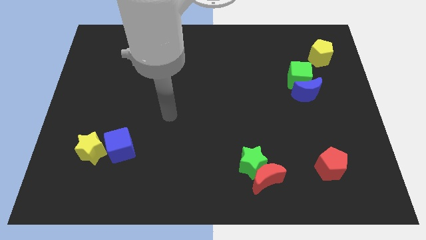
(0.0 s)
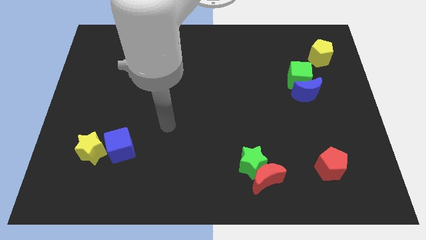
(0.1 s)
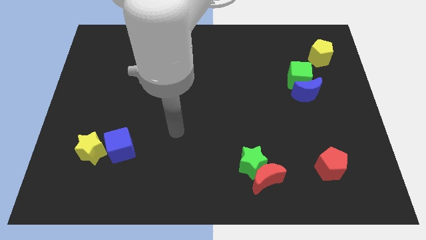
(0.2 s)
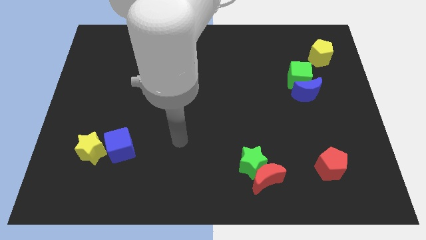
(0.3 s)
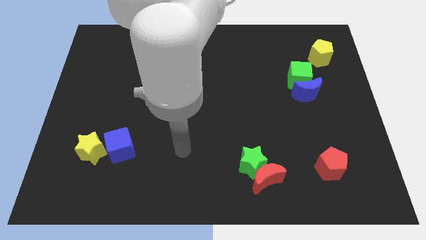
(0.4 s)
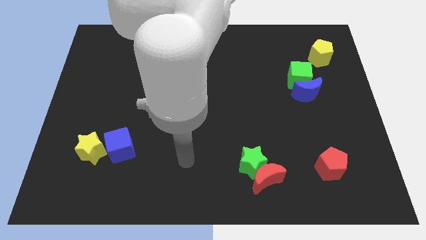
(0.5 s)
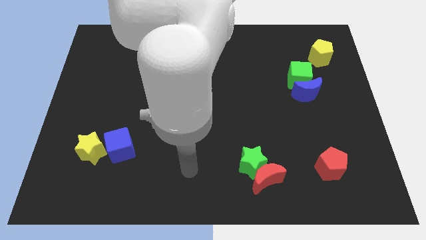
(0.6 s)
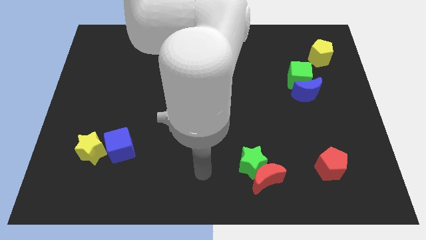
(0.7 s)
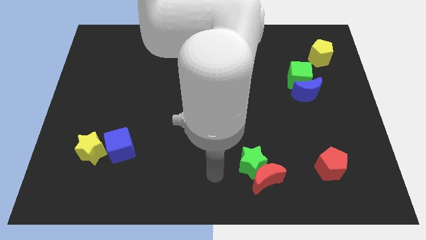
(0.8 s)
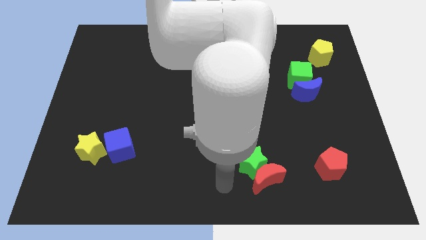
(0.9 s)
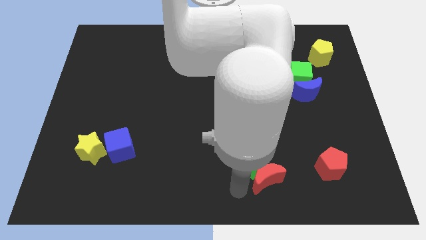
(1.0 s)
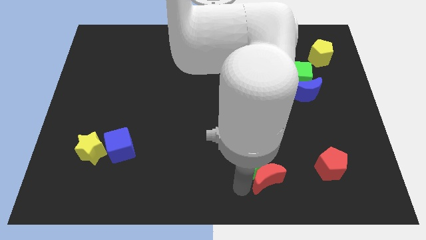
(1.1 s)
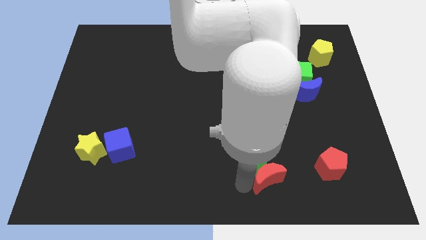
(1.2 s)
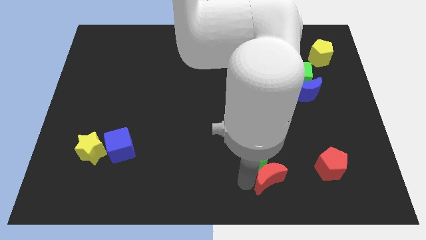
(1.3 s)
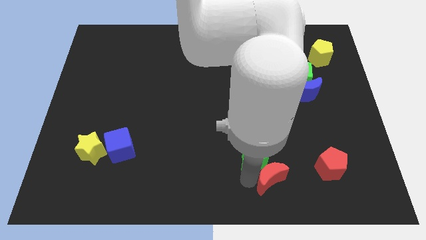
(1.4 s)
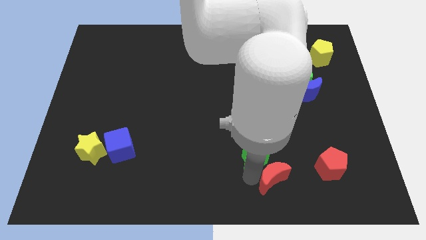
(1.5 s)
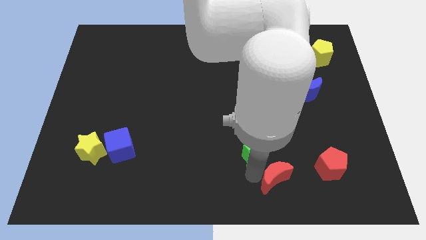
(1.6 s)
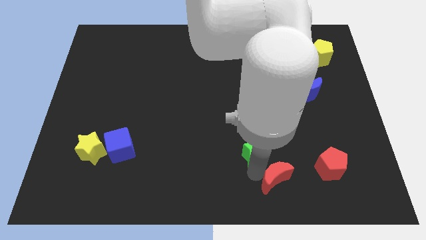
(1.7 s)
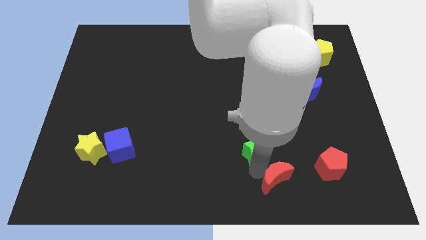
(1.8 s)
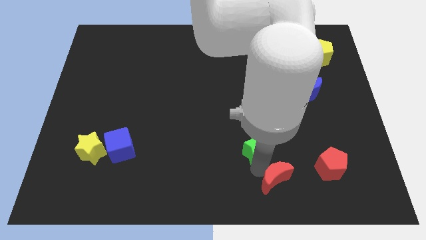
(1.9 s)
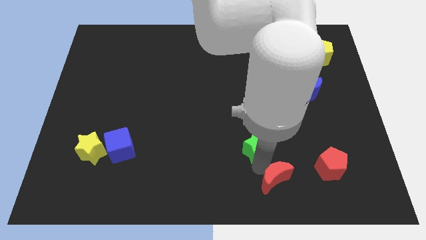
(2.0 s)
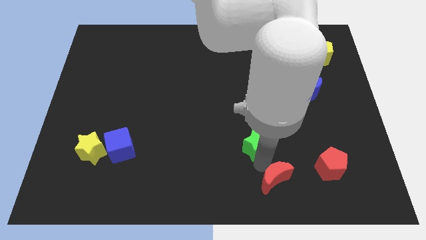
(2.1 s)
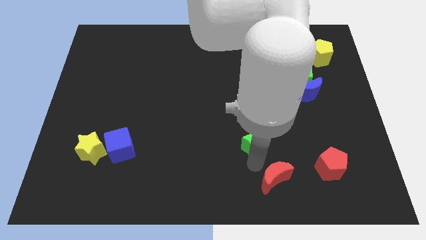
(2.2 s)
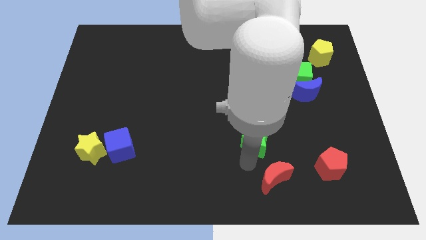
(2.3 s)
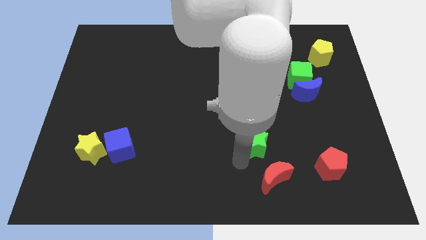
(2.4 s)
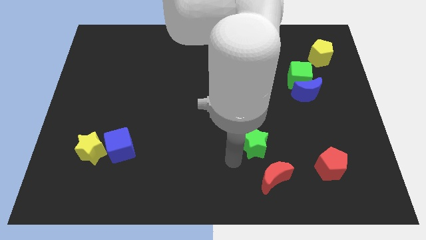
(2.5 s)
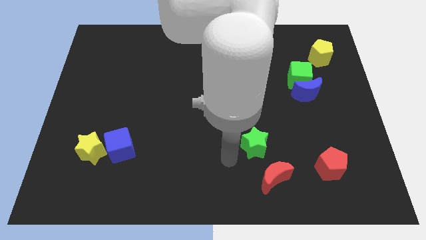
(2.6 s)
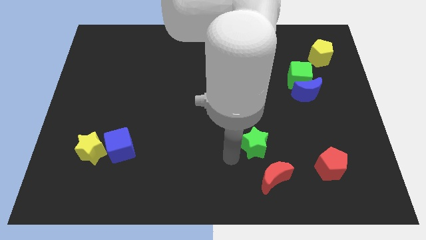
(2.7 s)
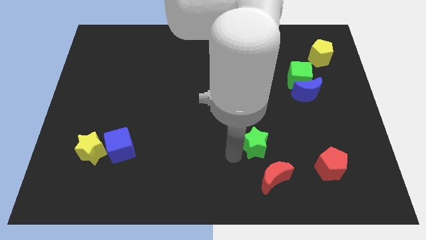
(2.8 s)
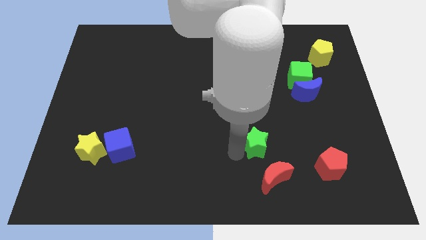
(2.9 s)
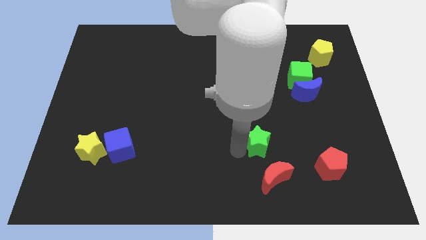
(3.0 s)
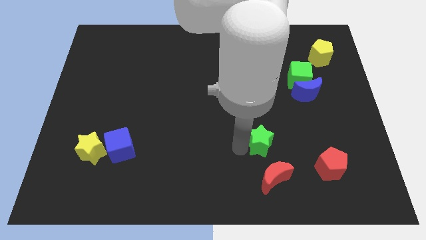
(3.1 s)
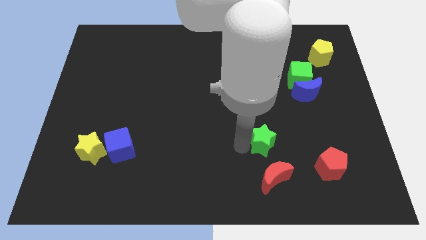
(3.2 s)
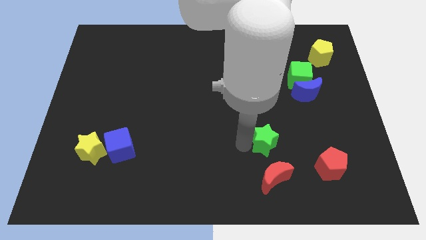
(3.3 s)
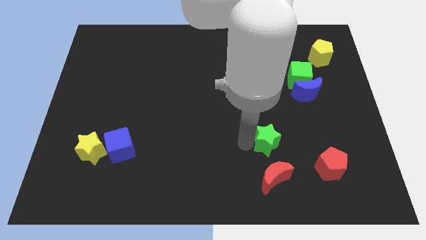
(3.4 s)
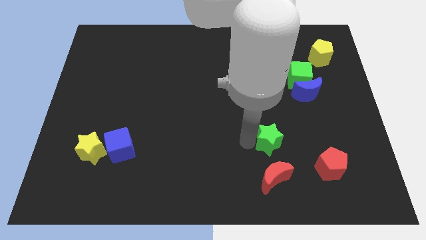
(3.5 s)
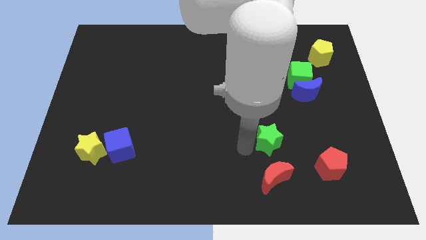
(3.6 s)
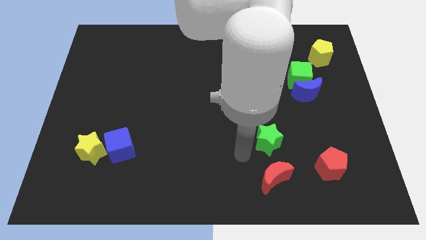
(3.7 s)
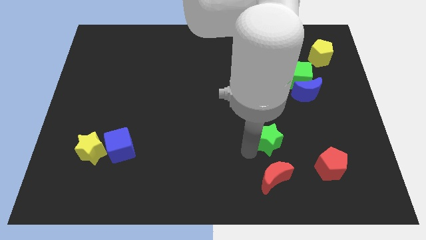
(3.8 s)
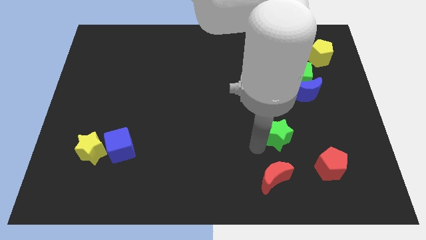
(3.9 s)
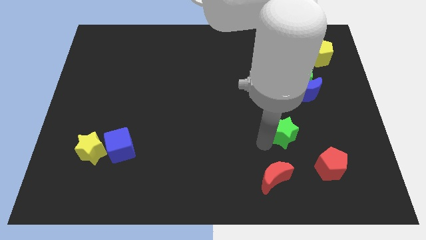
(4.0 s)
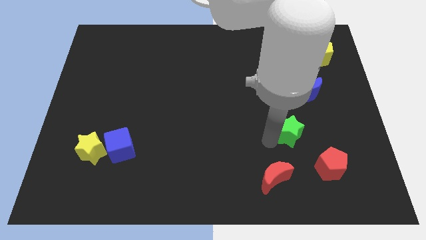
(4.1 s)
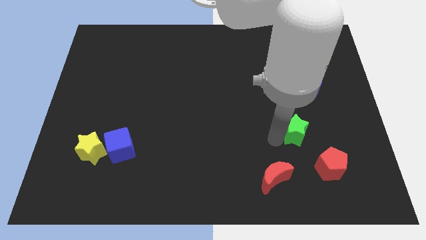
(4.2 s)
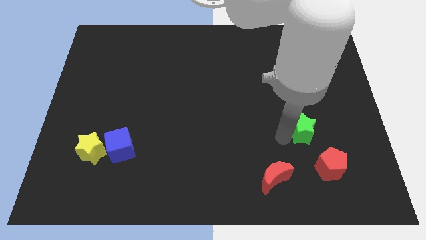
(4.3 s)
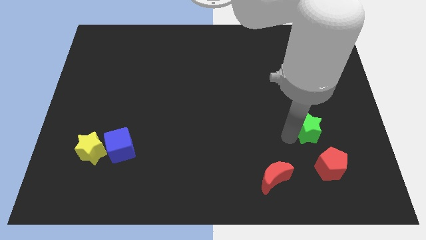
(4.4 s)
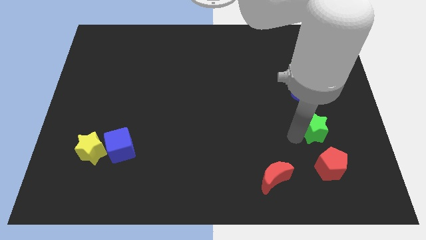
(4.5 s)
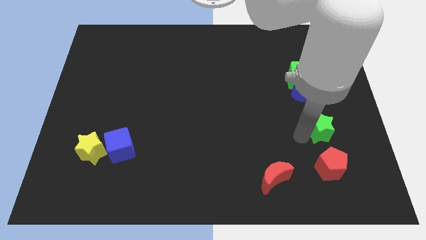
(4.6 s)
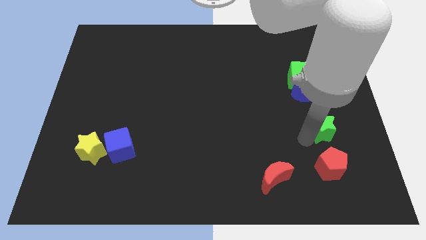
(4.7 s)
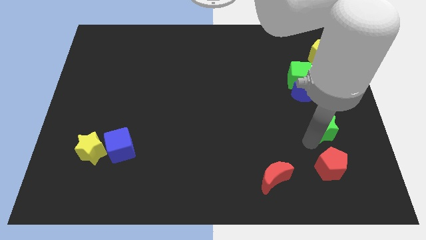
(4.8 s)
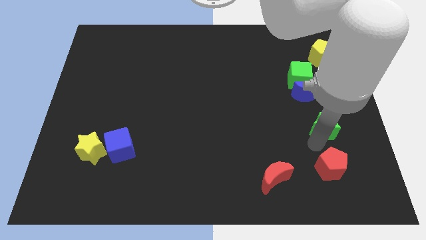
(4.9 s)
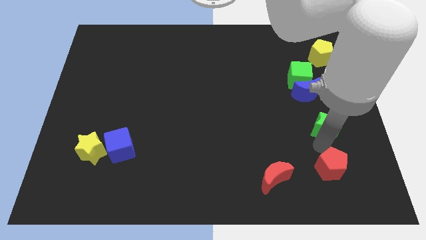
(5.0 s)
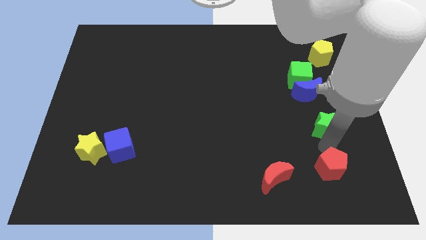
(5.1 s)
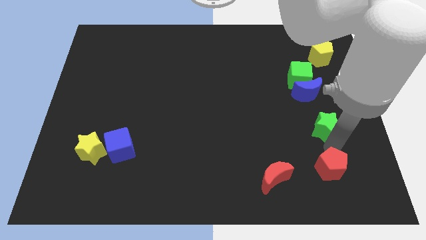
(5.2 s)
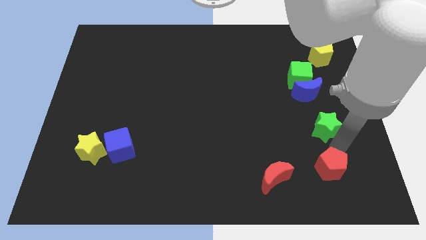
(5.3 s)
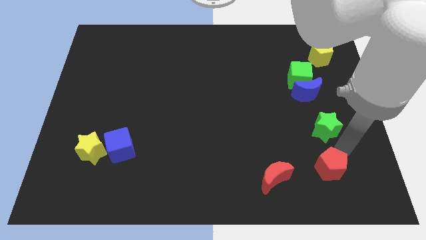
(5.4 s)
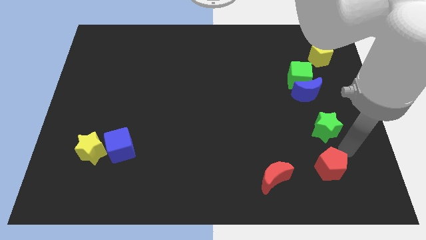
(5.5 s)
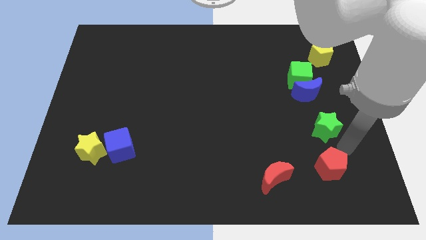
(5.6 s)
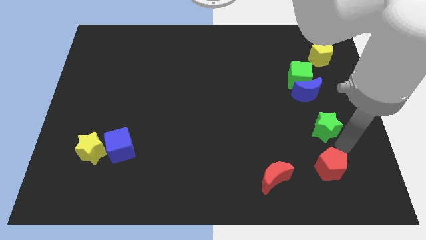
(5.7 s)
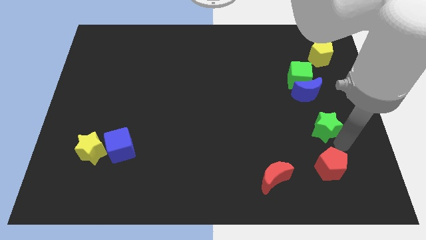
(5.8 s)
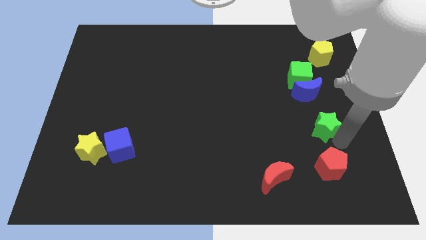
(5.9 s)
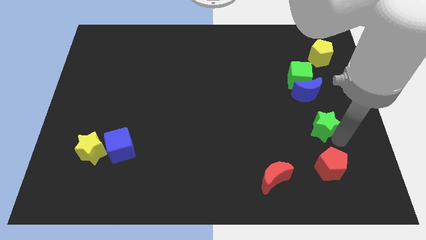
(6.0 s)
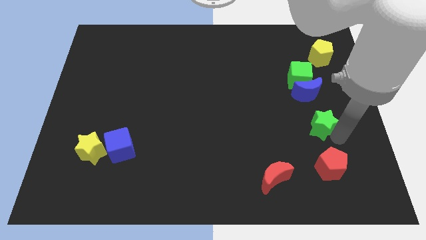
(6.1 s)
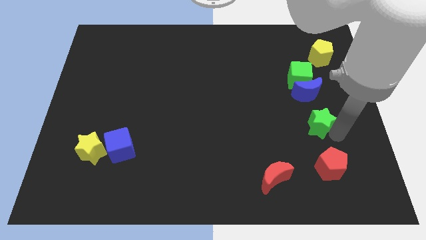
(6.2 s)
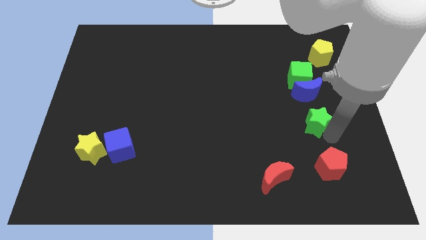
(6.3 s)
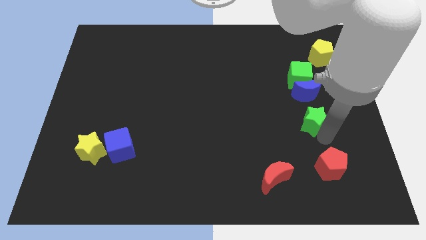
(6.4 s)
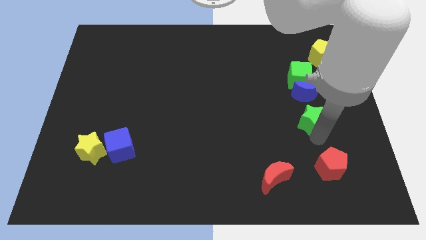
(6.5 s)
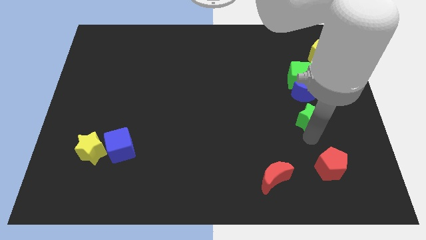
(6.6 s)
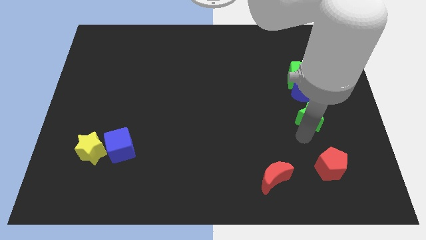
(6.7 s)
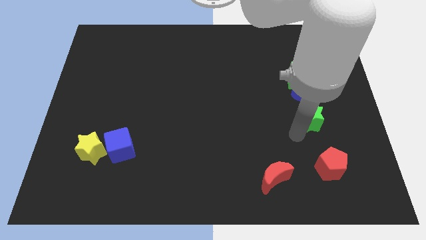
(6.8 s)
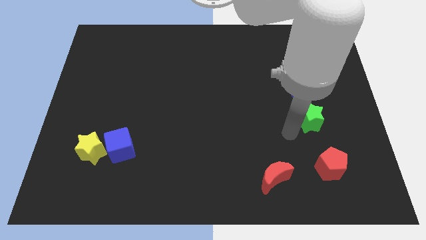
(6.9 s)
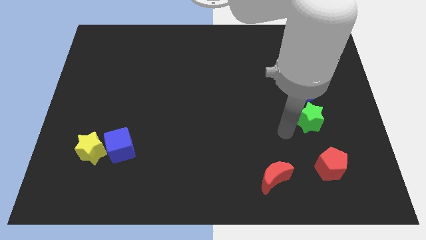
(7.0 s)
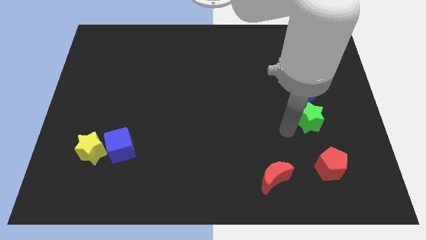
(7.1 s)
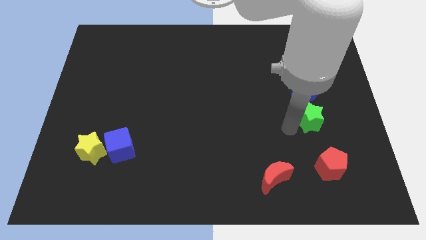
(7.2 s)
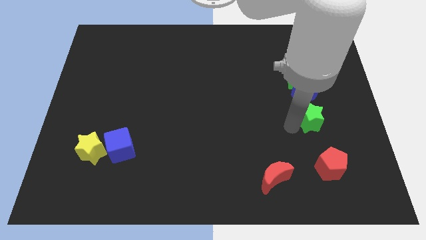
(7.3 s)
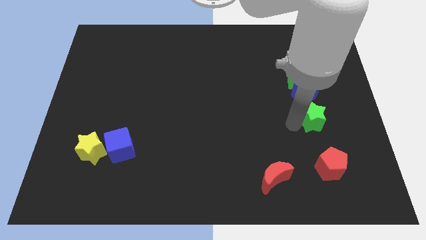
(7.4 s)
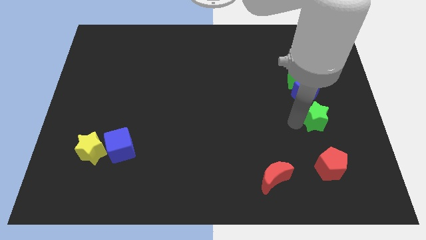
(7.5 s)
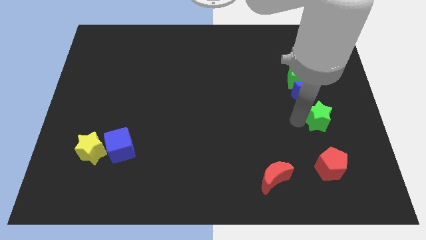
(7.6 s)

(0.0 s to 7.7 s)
put the green star diagonally down and to the right of the blue moon
